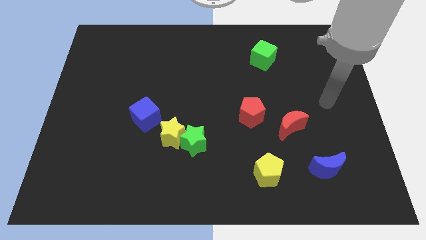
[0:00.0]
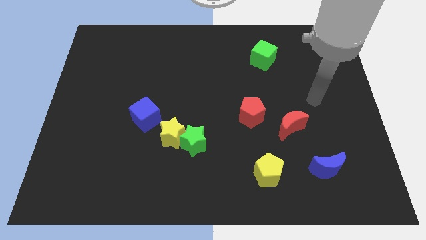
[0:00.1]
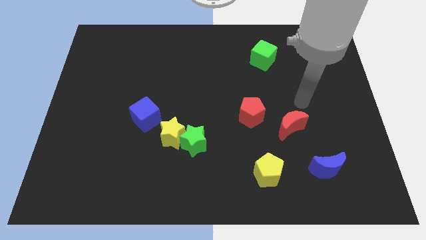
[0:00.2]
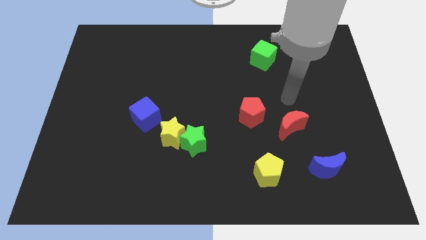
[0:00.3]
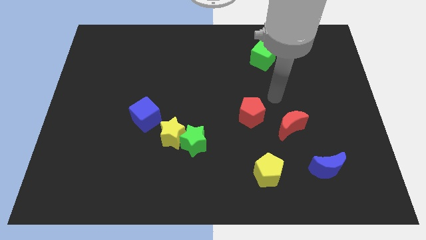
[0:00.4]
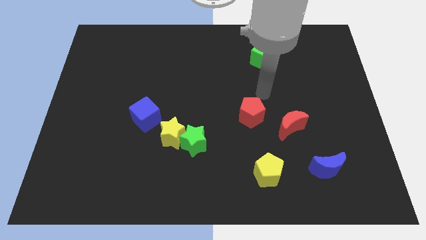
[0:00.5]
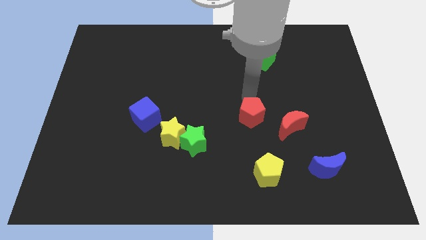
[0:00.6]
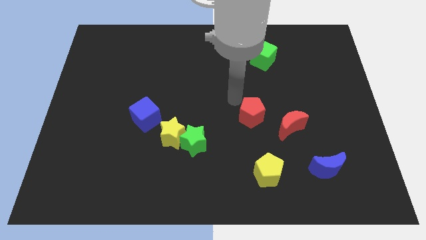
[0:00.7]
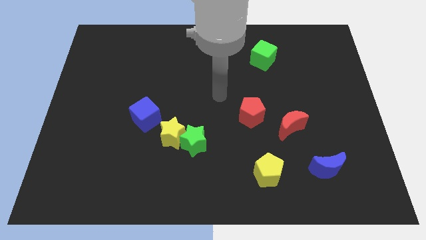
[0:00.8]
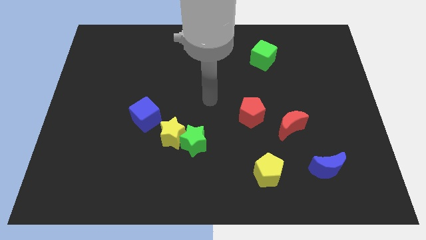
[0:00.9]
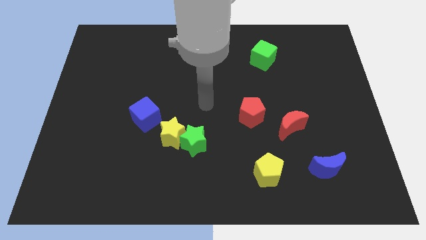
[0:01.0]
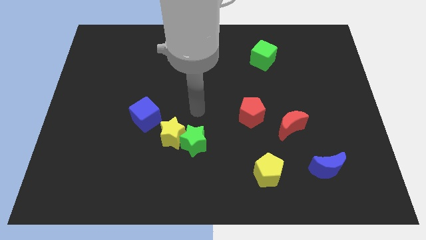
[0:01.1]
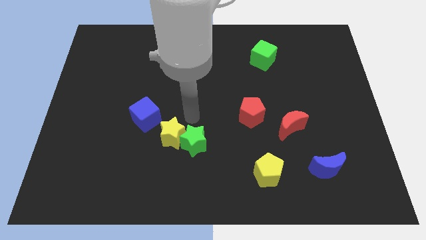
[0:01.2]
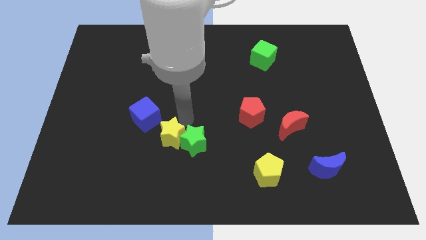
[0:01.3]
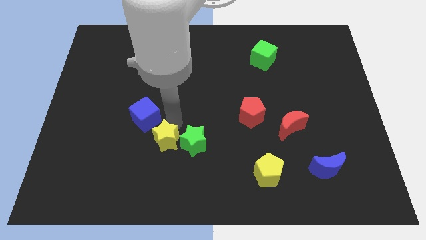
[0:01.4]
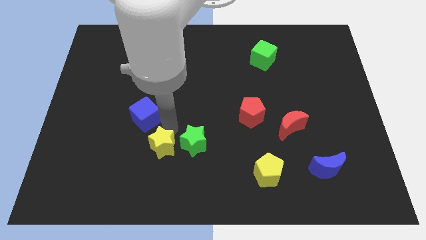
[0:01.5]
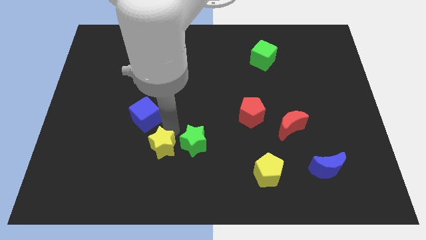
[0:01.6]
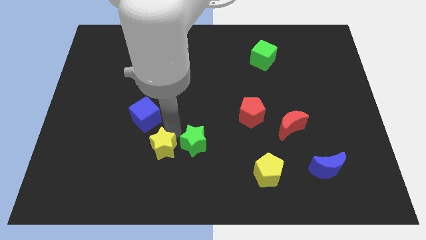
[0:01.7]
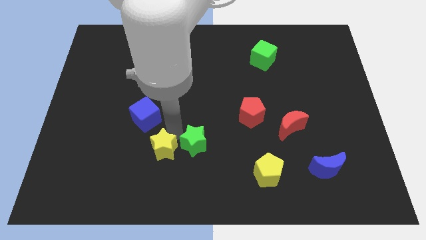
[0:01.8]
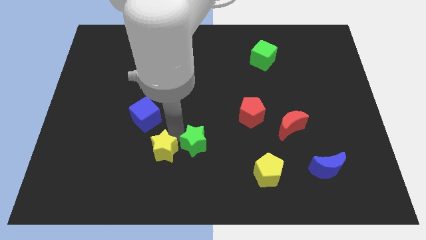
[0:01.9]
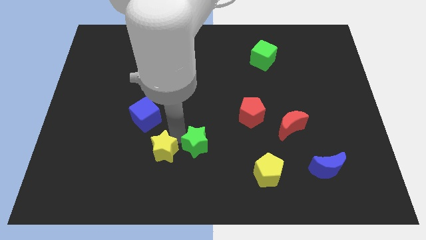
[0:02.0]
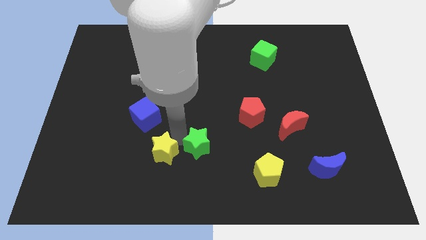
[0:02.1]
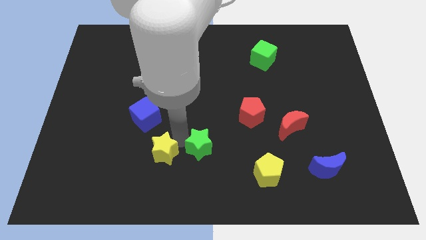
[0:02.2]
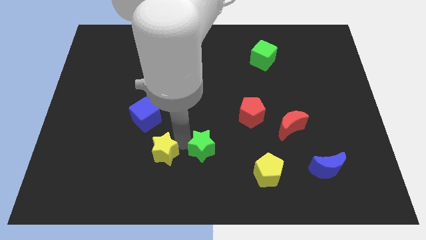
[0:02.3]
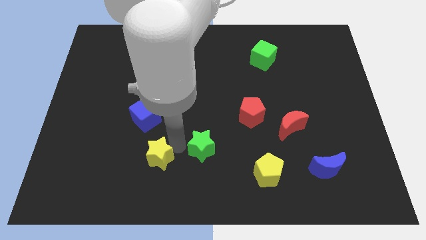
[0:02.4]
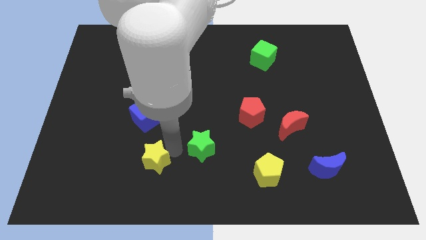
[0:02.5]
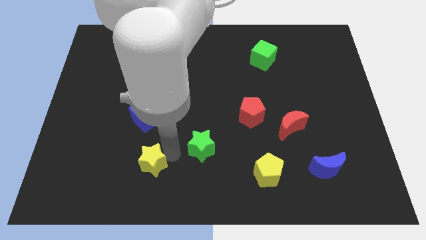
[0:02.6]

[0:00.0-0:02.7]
separate the green star from the yellow star

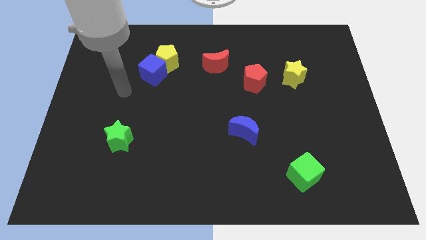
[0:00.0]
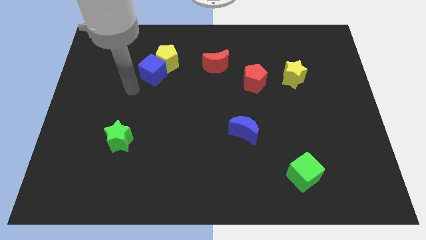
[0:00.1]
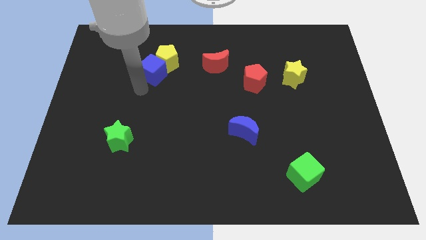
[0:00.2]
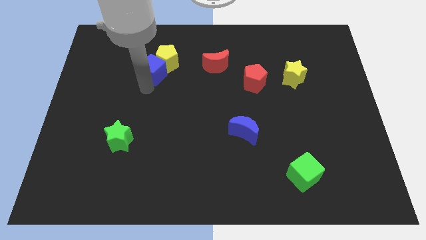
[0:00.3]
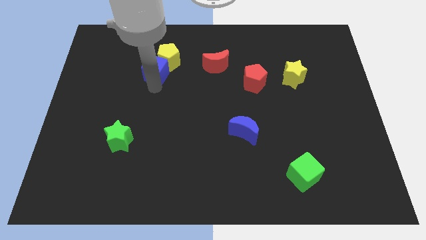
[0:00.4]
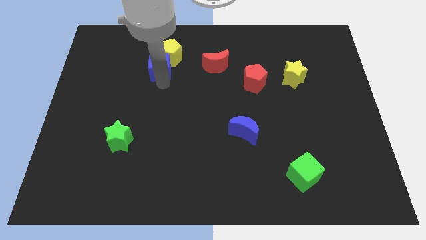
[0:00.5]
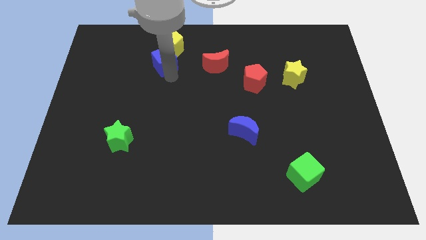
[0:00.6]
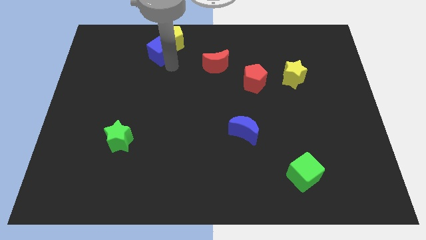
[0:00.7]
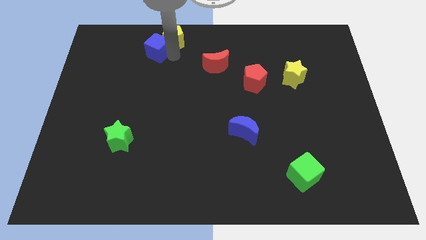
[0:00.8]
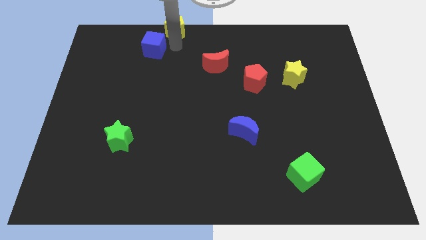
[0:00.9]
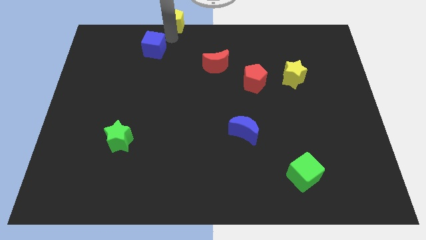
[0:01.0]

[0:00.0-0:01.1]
separate the blue cube from the yellow pentagon

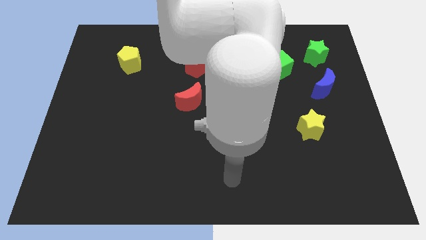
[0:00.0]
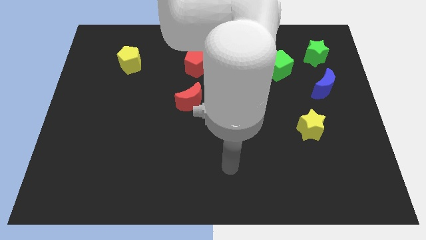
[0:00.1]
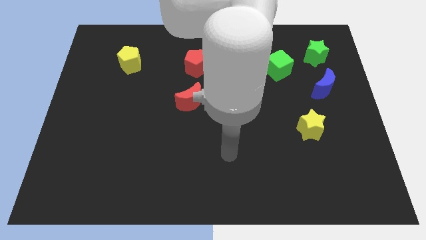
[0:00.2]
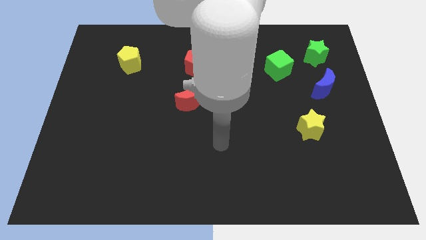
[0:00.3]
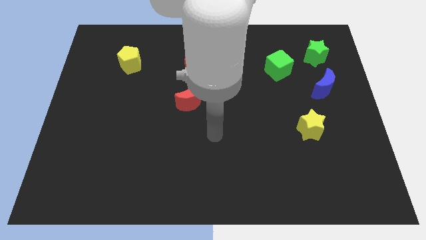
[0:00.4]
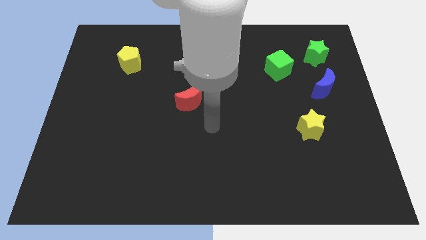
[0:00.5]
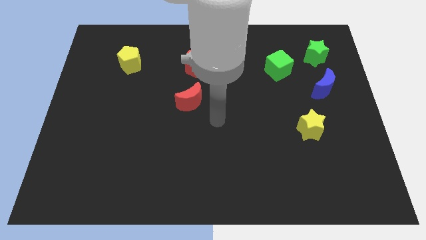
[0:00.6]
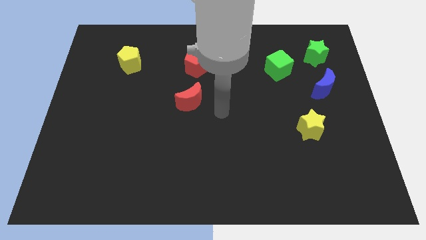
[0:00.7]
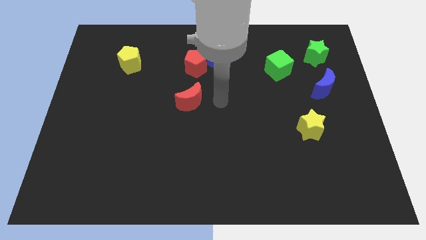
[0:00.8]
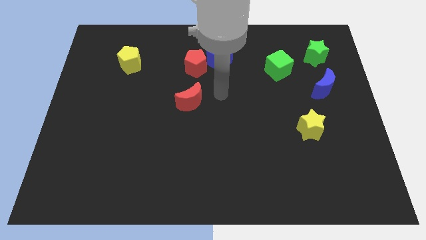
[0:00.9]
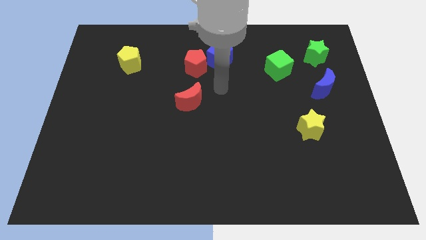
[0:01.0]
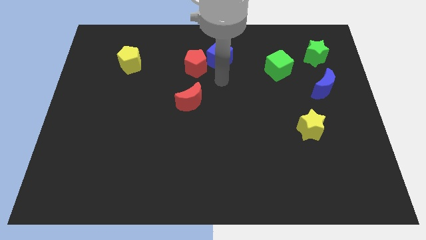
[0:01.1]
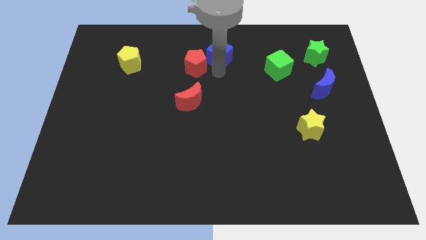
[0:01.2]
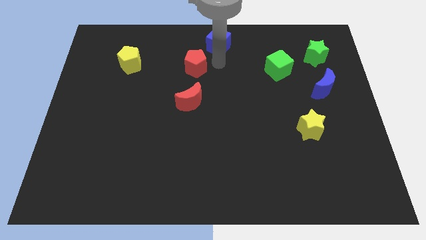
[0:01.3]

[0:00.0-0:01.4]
pull the red pentagon apart from the blue cube

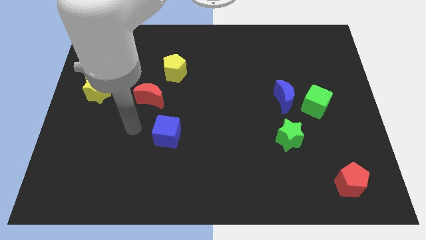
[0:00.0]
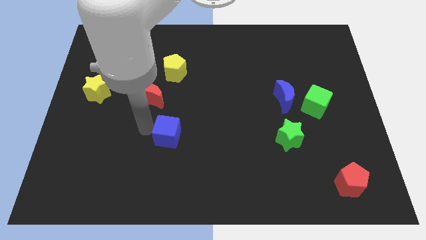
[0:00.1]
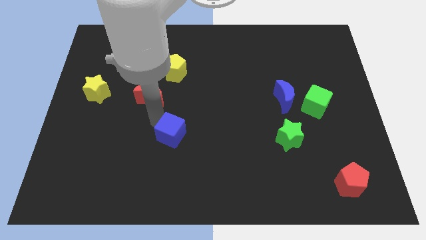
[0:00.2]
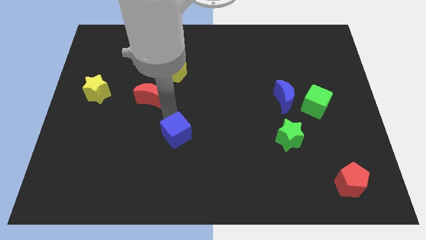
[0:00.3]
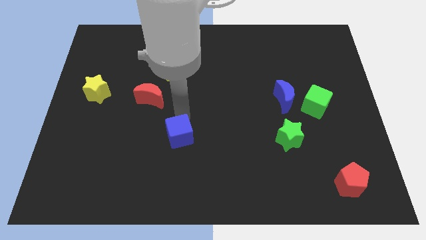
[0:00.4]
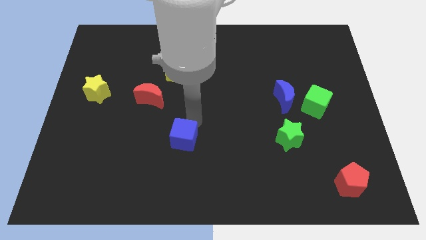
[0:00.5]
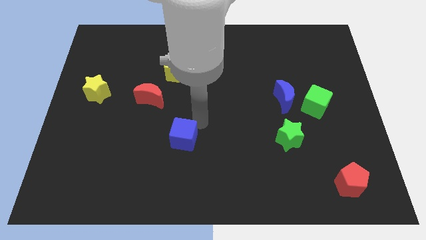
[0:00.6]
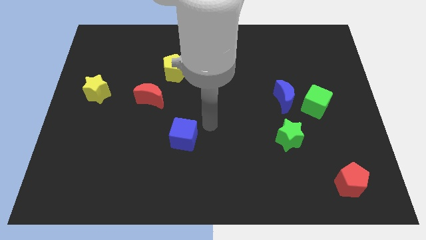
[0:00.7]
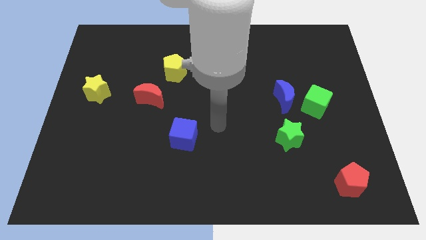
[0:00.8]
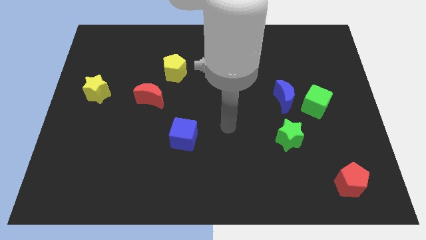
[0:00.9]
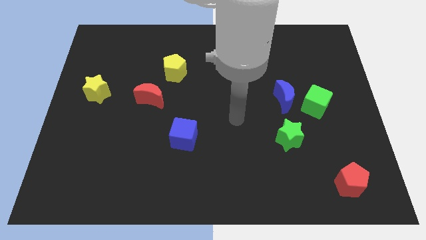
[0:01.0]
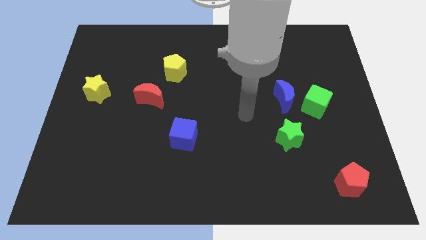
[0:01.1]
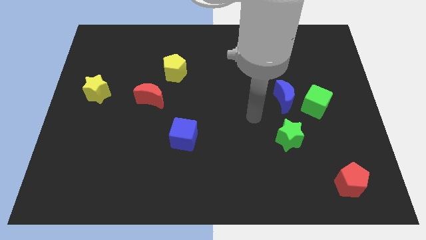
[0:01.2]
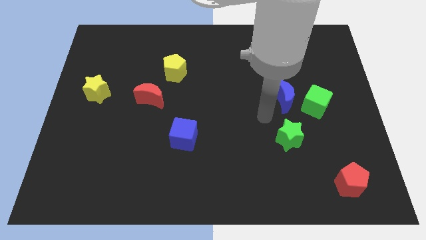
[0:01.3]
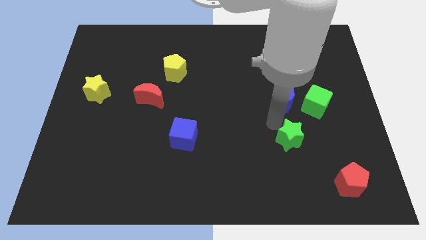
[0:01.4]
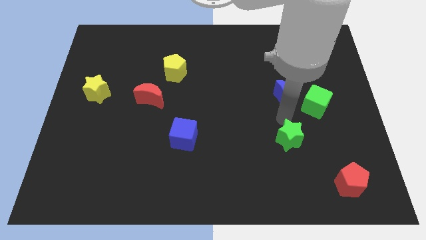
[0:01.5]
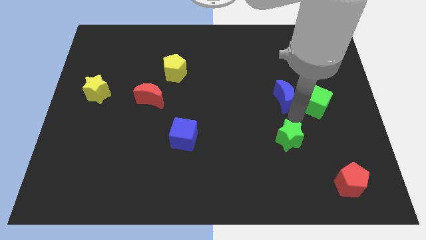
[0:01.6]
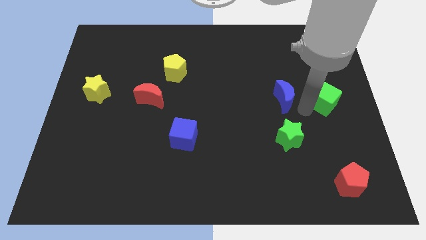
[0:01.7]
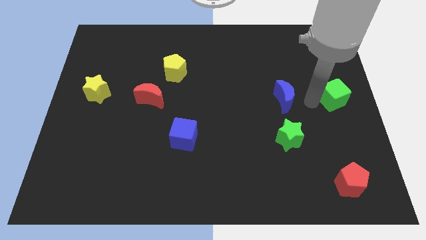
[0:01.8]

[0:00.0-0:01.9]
separate the blue moon from the green cube

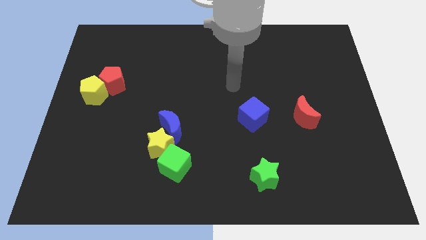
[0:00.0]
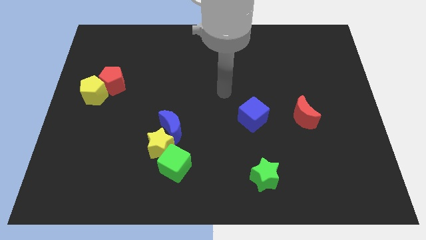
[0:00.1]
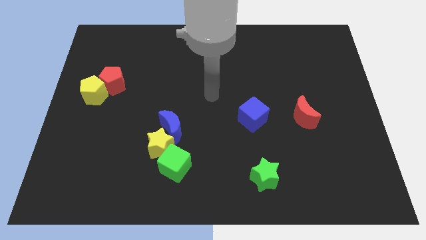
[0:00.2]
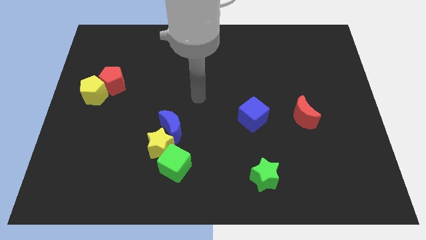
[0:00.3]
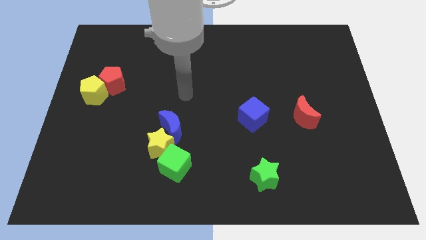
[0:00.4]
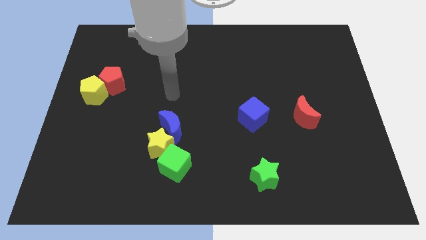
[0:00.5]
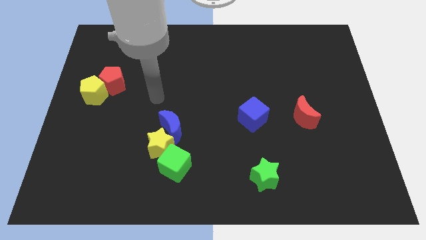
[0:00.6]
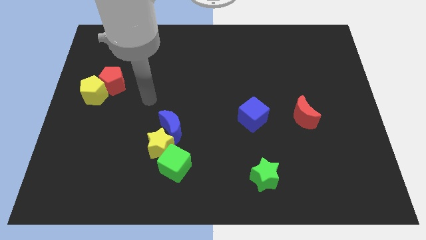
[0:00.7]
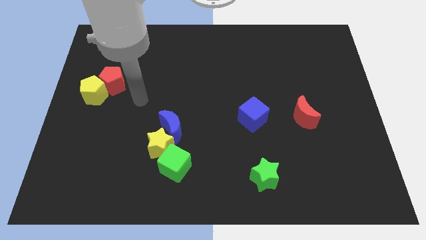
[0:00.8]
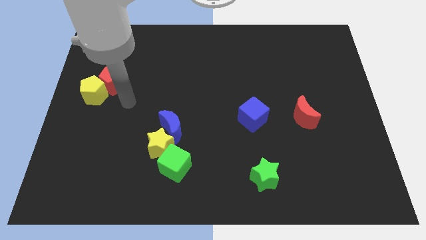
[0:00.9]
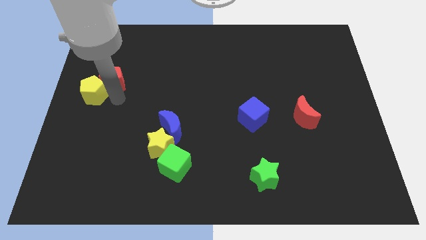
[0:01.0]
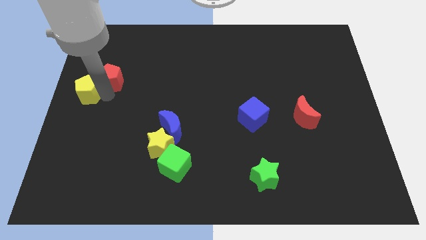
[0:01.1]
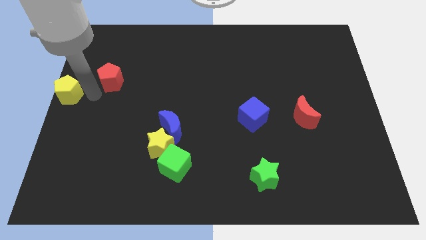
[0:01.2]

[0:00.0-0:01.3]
separate the red pentagon from the yellow pentagon

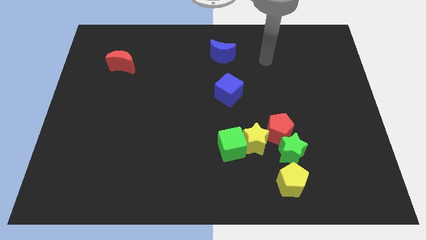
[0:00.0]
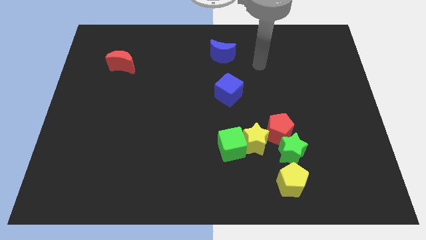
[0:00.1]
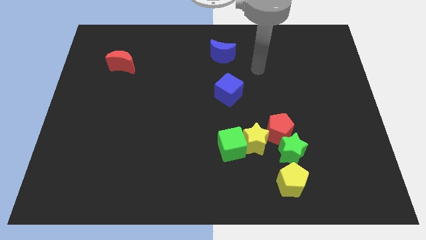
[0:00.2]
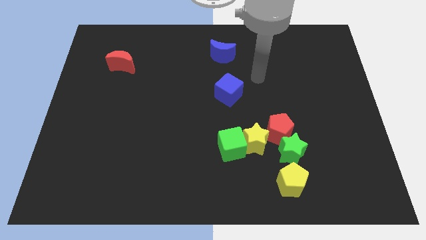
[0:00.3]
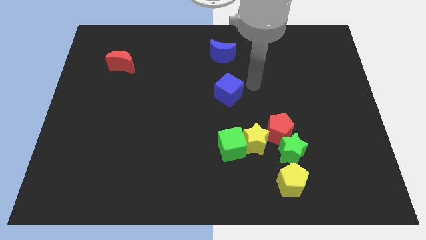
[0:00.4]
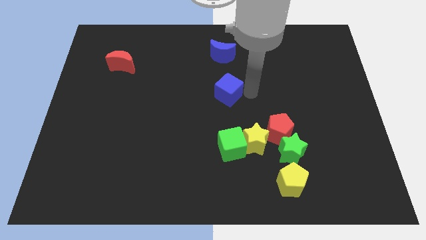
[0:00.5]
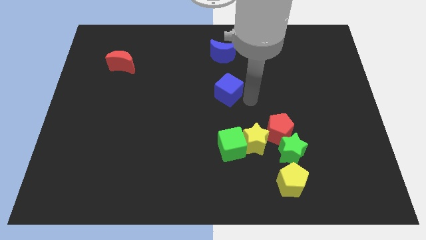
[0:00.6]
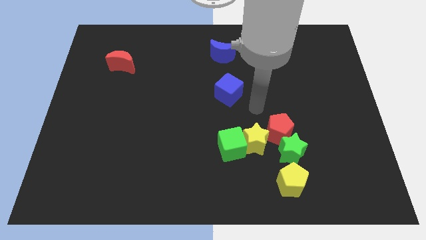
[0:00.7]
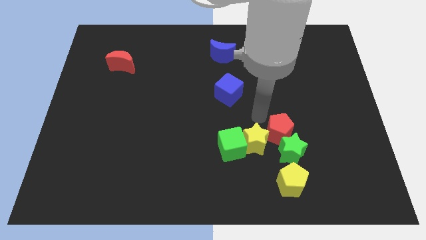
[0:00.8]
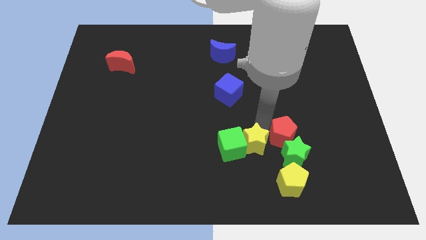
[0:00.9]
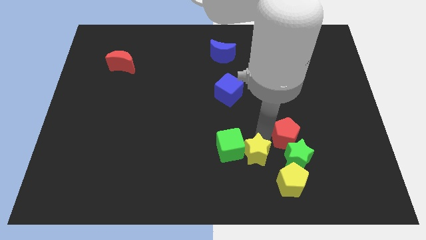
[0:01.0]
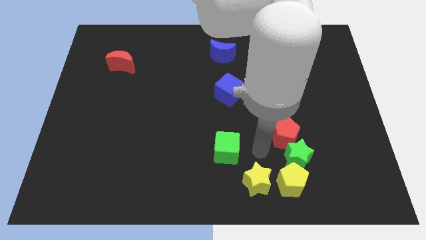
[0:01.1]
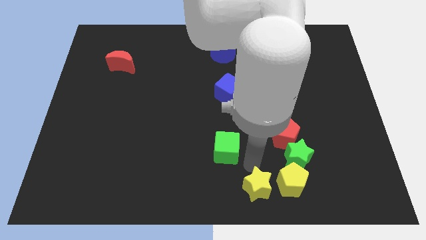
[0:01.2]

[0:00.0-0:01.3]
move the green cube away from the yellow star
